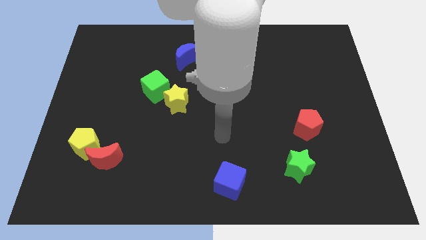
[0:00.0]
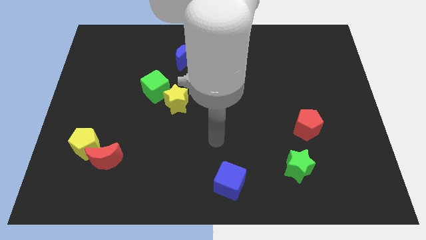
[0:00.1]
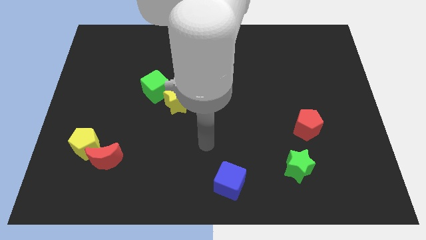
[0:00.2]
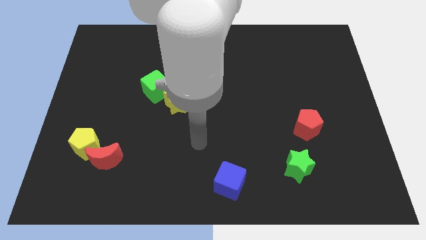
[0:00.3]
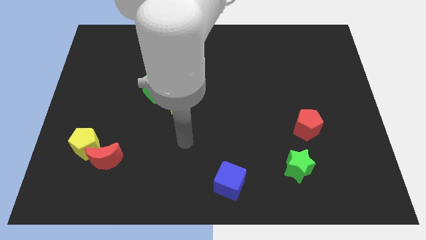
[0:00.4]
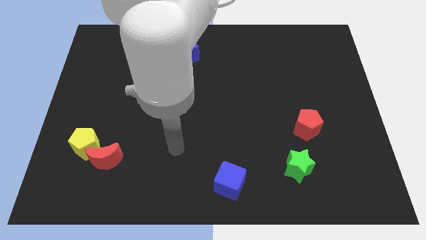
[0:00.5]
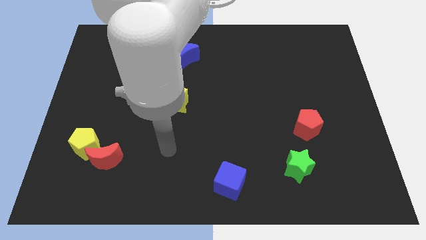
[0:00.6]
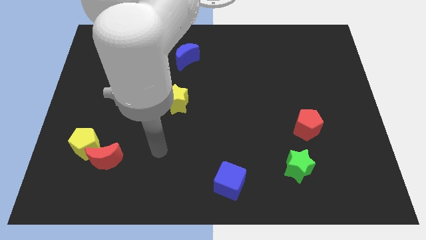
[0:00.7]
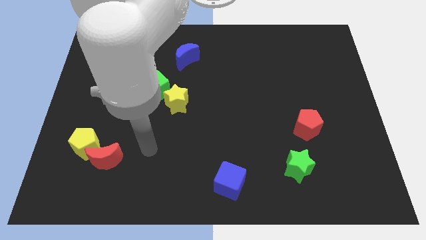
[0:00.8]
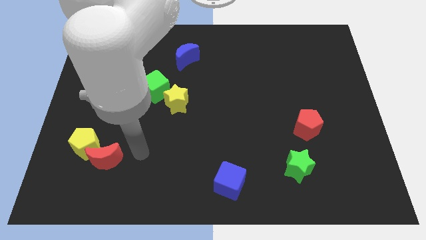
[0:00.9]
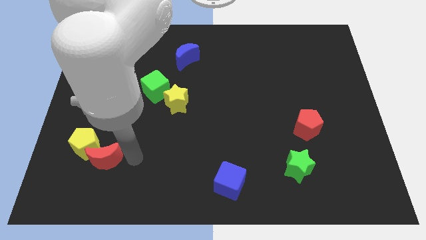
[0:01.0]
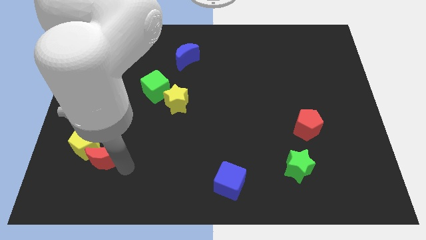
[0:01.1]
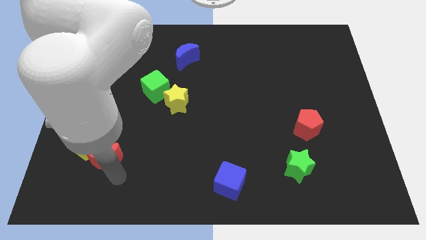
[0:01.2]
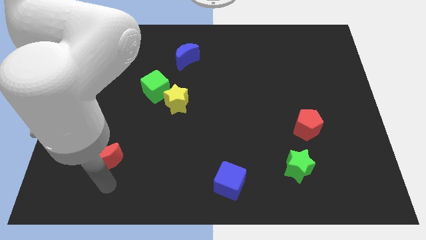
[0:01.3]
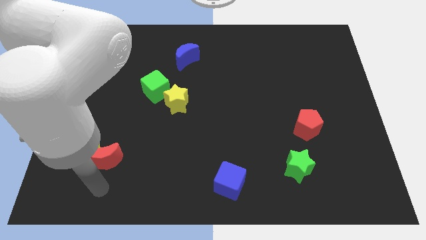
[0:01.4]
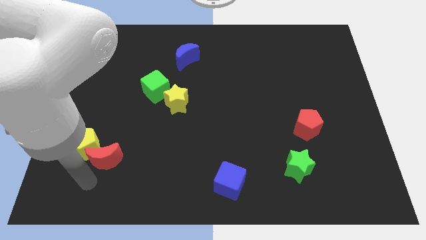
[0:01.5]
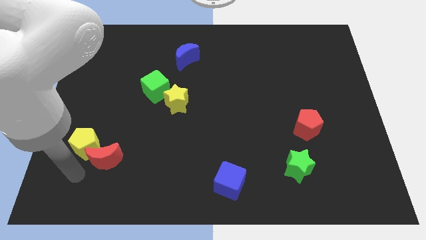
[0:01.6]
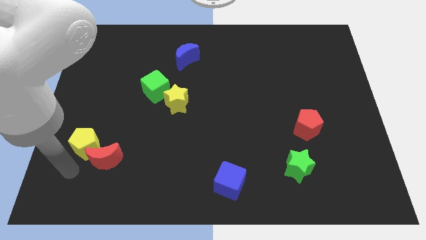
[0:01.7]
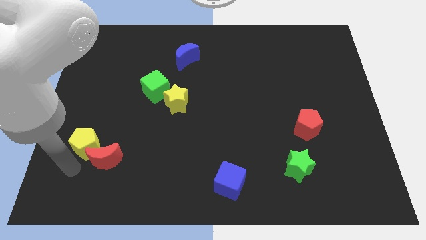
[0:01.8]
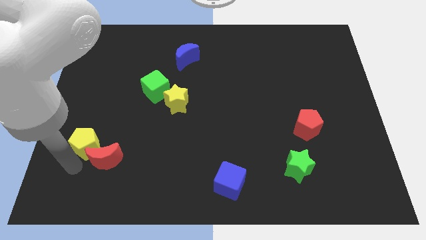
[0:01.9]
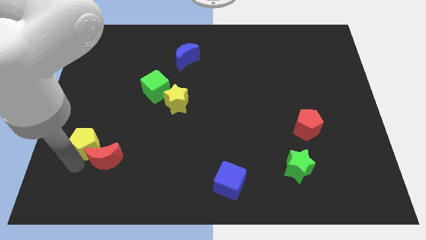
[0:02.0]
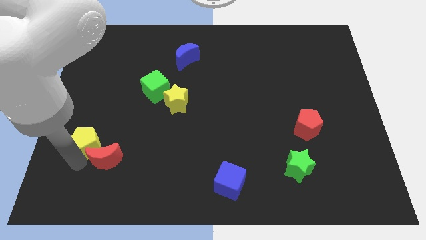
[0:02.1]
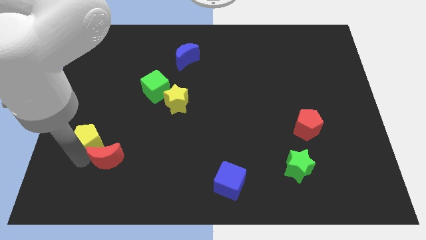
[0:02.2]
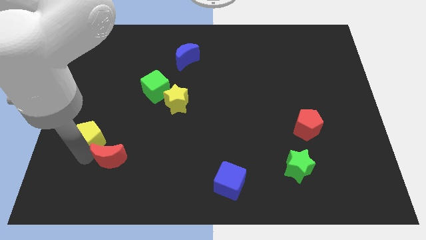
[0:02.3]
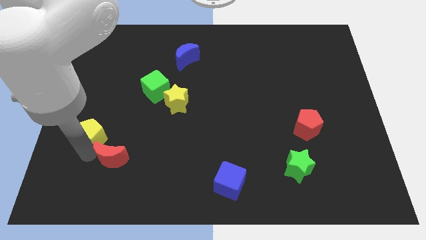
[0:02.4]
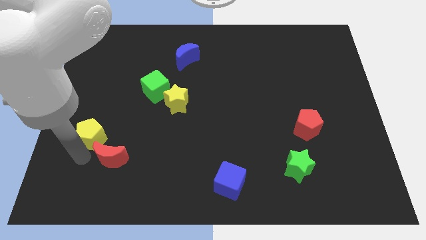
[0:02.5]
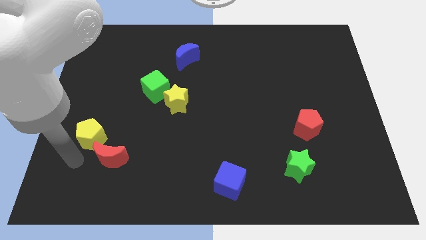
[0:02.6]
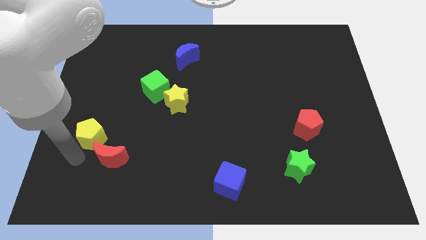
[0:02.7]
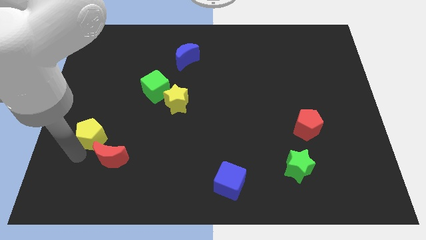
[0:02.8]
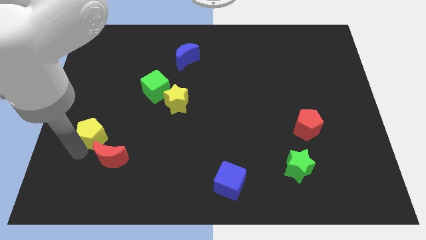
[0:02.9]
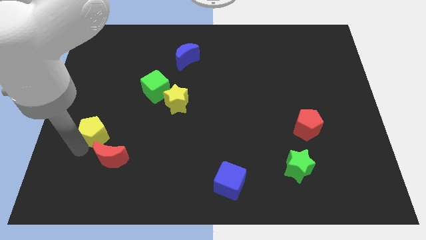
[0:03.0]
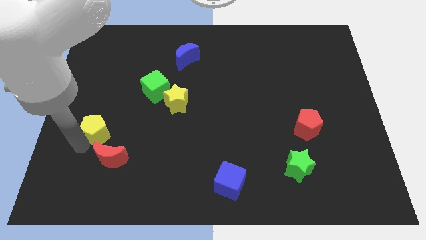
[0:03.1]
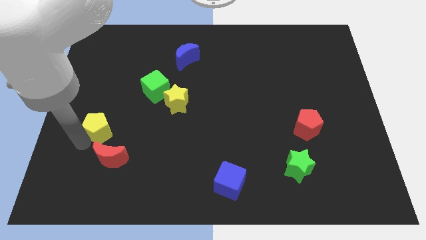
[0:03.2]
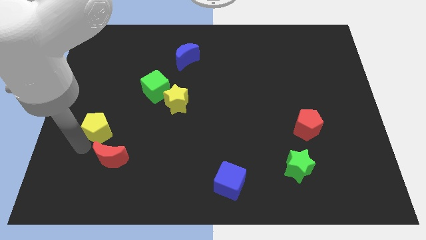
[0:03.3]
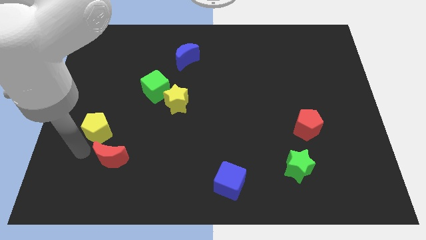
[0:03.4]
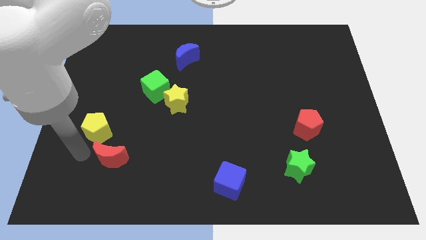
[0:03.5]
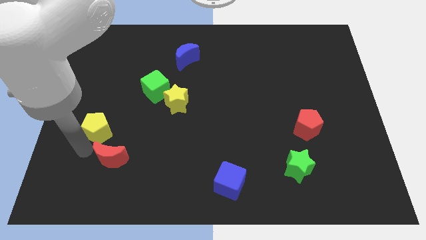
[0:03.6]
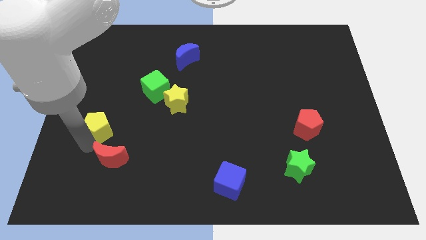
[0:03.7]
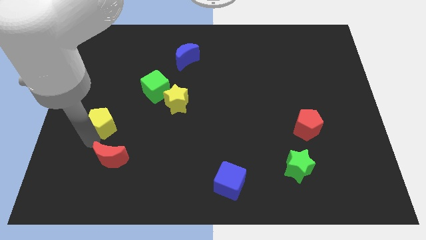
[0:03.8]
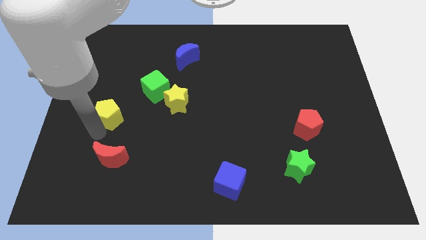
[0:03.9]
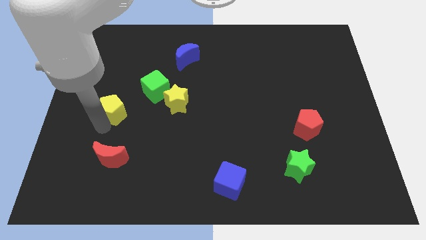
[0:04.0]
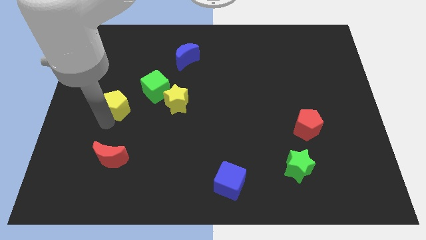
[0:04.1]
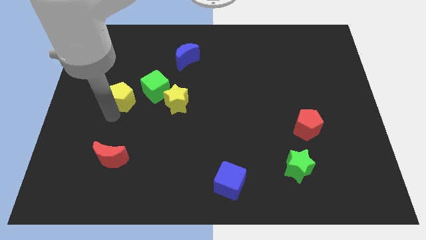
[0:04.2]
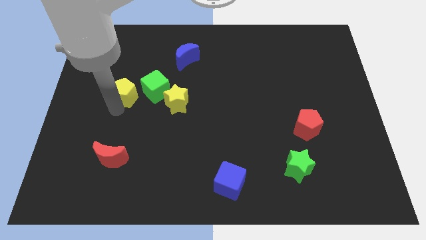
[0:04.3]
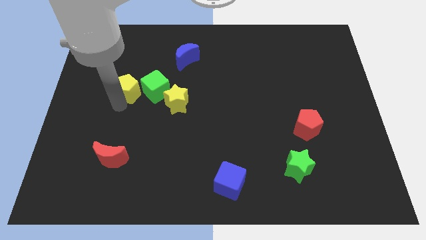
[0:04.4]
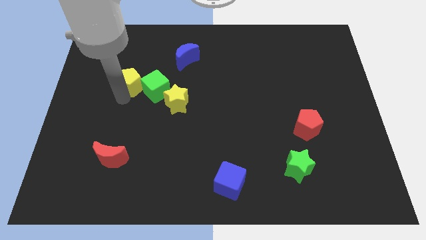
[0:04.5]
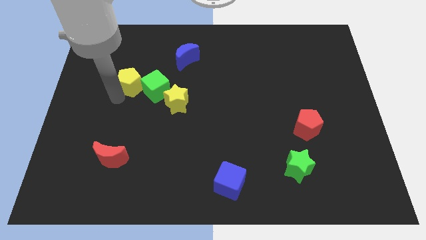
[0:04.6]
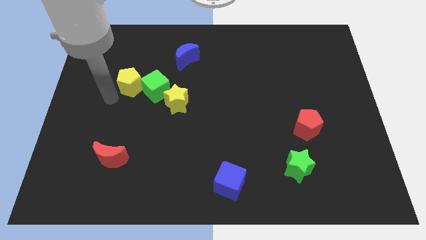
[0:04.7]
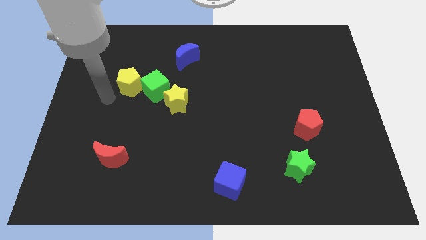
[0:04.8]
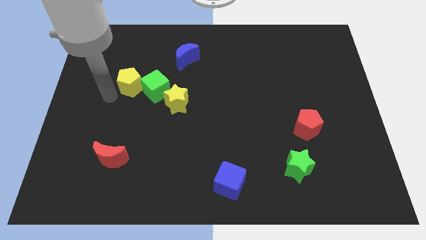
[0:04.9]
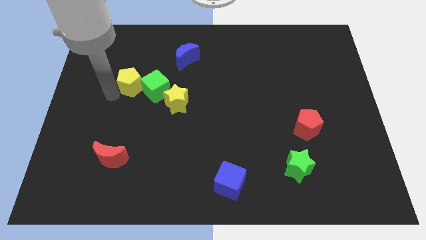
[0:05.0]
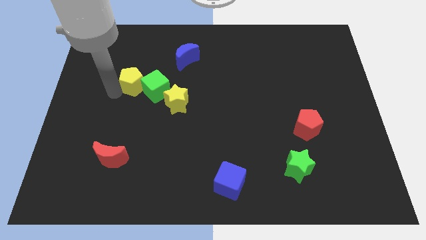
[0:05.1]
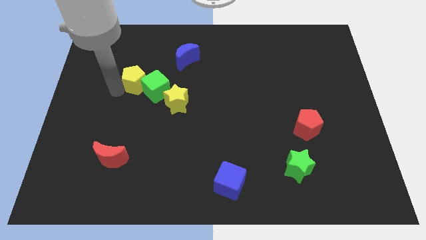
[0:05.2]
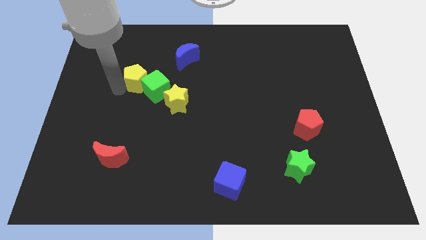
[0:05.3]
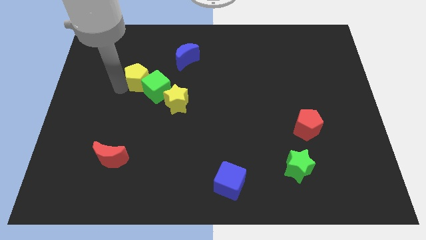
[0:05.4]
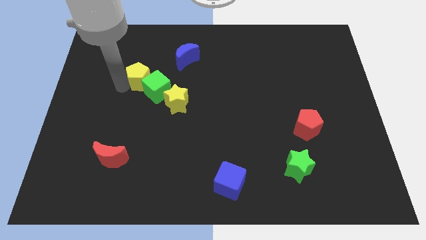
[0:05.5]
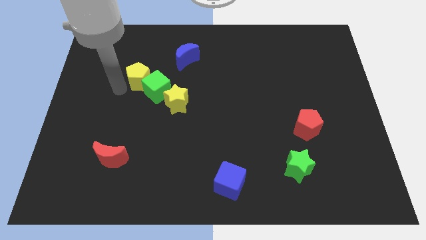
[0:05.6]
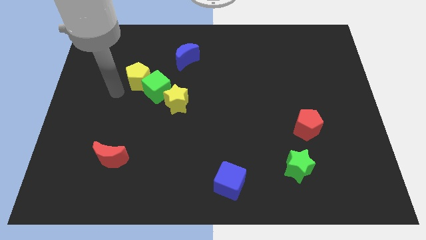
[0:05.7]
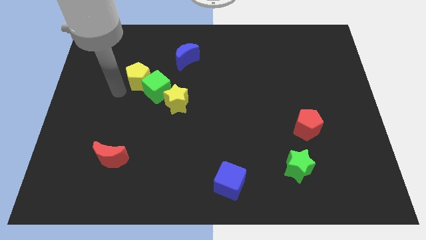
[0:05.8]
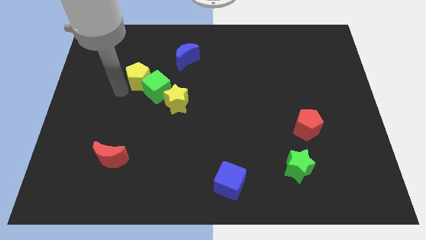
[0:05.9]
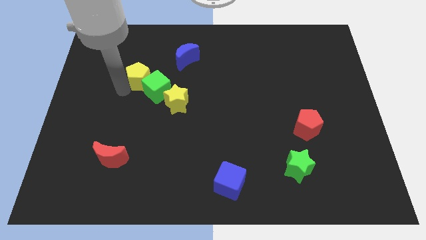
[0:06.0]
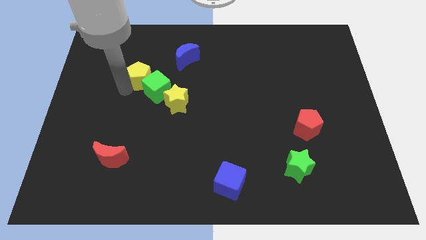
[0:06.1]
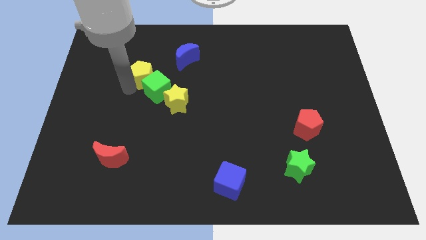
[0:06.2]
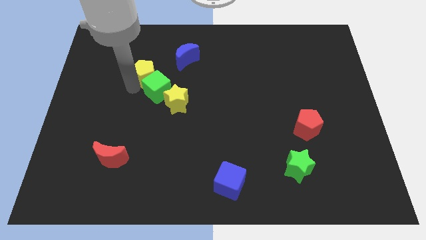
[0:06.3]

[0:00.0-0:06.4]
slide the yellow pentagon upwards and then to the right

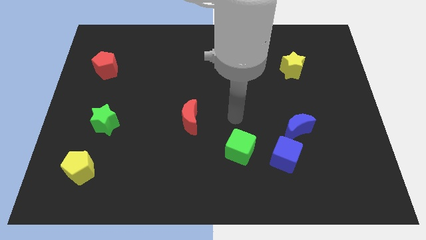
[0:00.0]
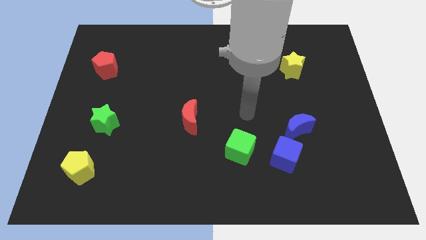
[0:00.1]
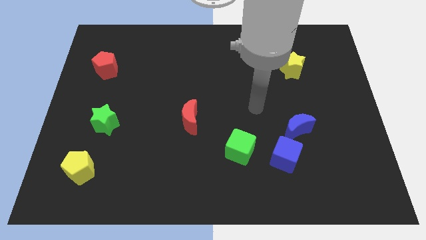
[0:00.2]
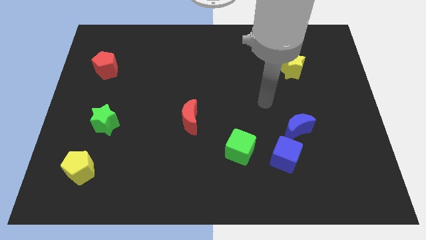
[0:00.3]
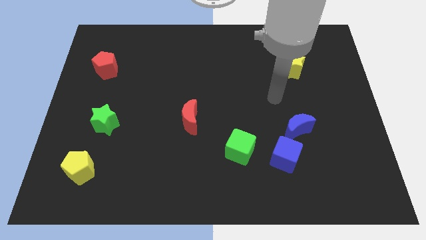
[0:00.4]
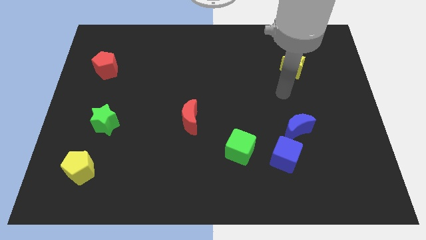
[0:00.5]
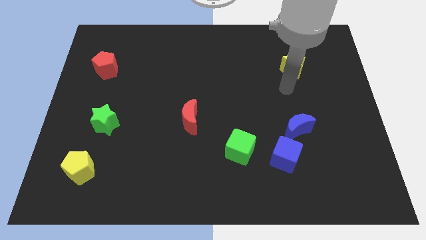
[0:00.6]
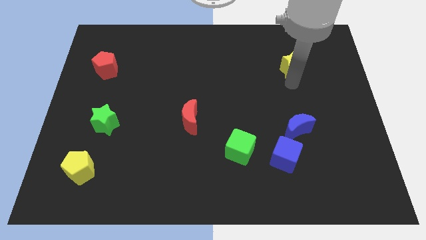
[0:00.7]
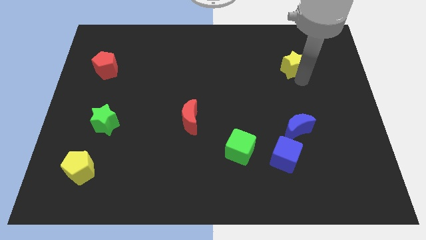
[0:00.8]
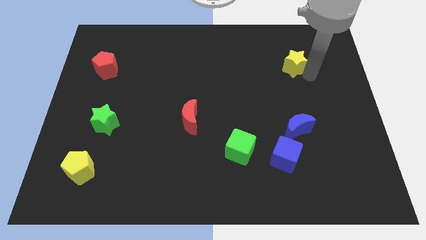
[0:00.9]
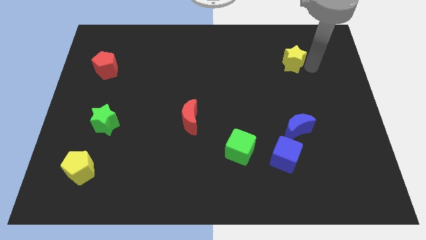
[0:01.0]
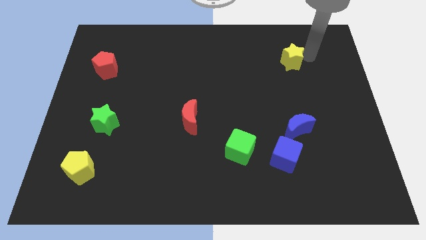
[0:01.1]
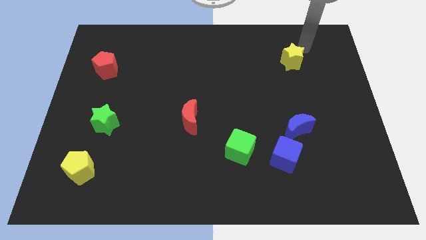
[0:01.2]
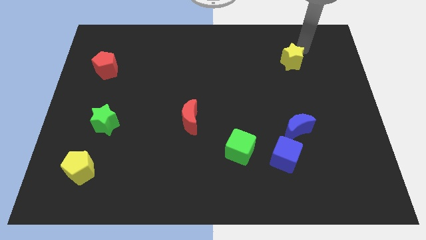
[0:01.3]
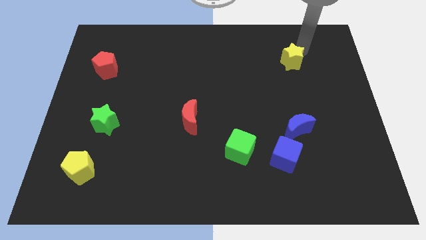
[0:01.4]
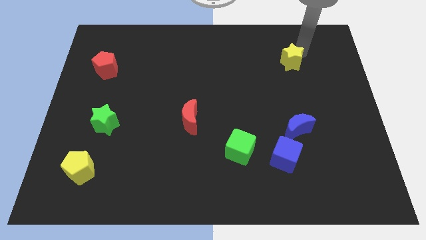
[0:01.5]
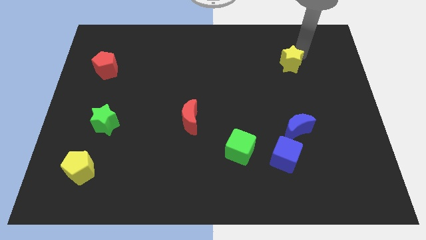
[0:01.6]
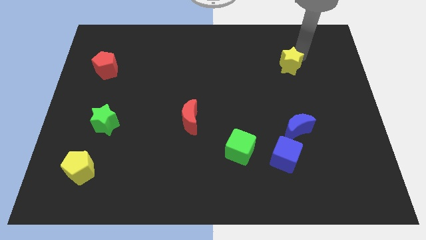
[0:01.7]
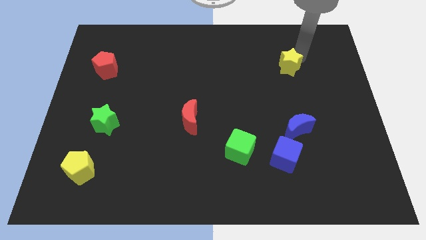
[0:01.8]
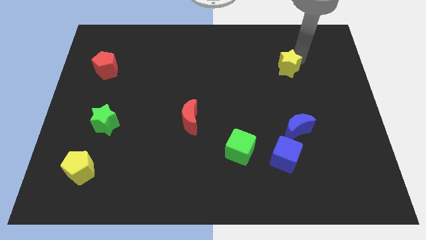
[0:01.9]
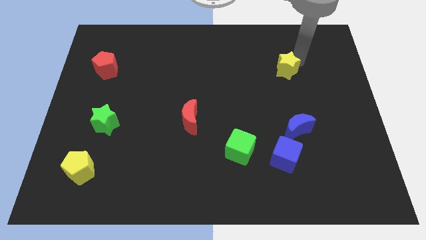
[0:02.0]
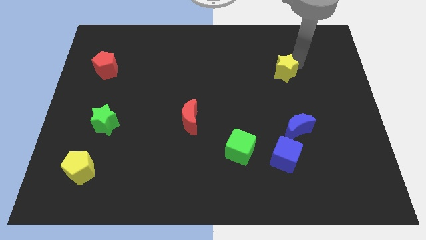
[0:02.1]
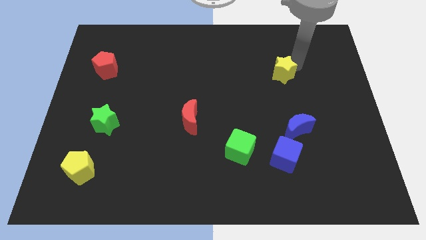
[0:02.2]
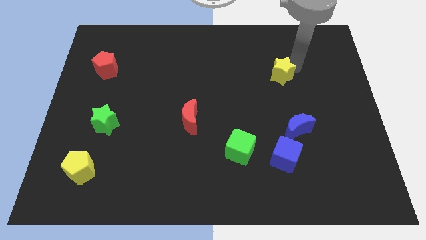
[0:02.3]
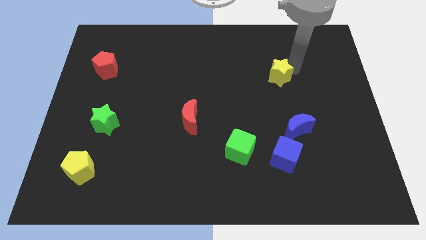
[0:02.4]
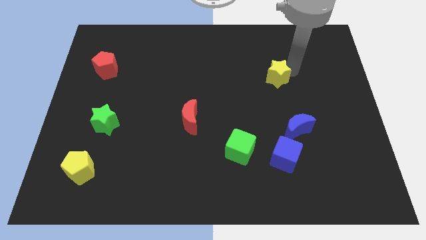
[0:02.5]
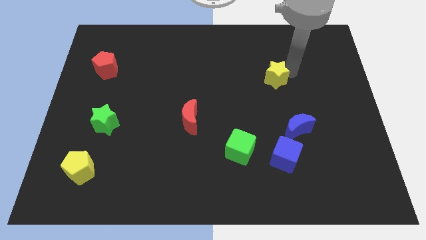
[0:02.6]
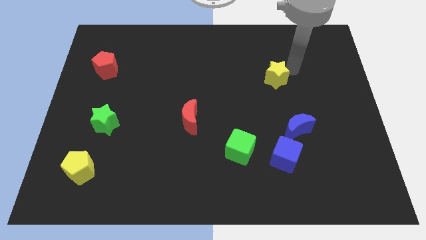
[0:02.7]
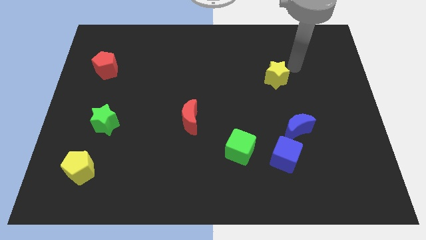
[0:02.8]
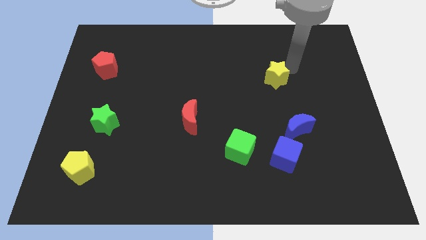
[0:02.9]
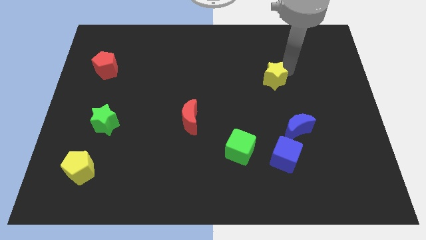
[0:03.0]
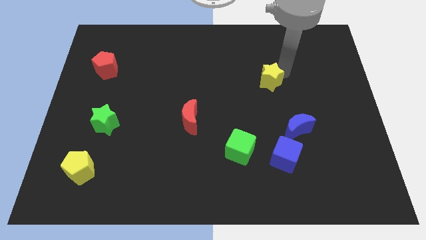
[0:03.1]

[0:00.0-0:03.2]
push the yellow star slightly diagonally down and left
